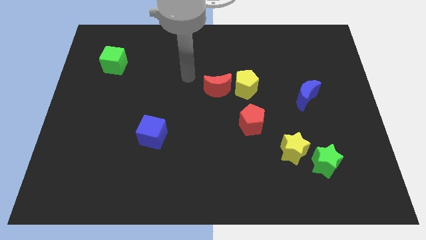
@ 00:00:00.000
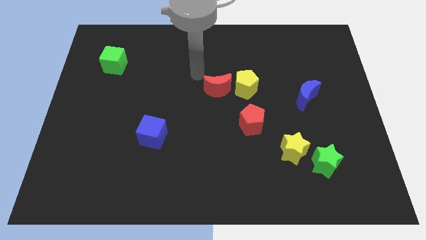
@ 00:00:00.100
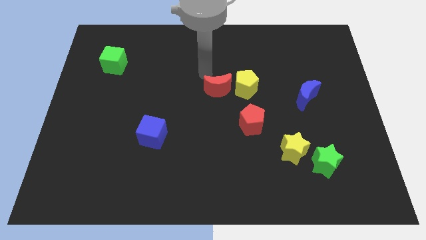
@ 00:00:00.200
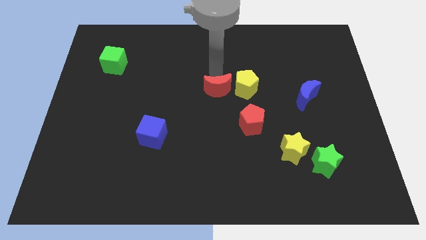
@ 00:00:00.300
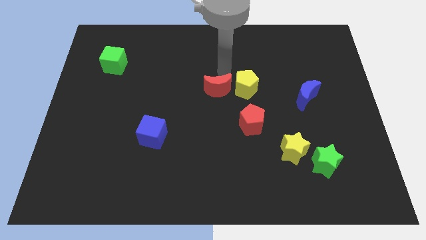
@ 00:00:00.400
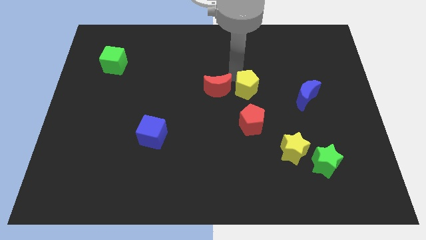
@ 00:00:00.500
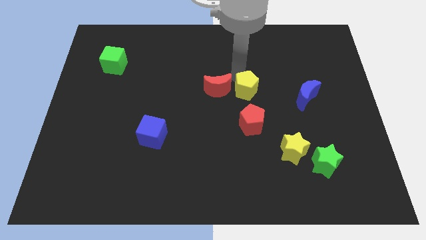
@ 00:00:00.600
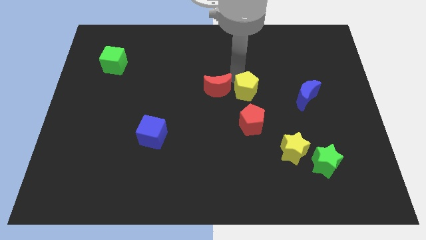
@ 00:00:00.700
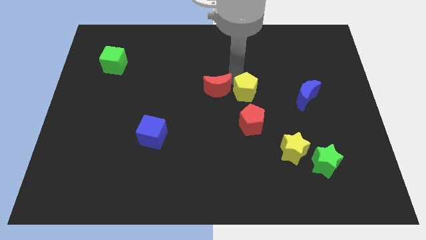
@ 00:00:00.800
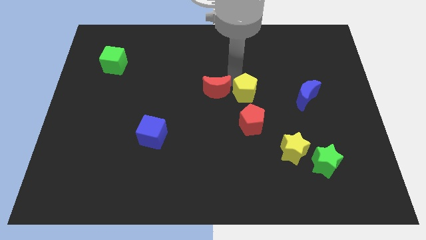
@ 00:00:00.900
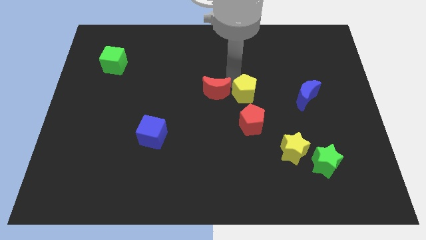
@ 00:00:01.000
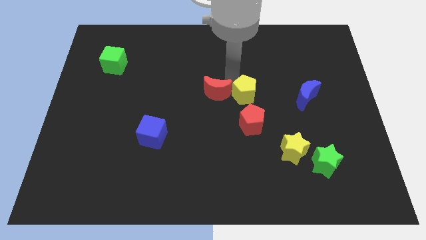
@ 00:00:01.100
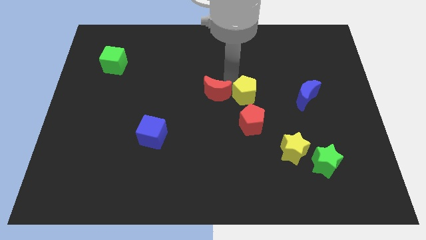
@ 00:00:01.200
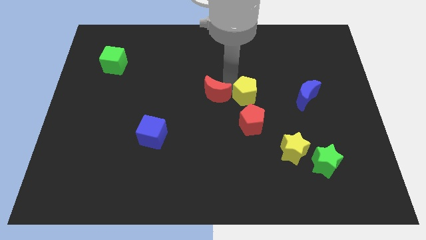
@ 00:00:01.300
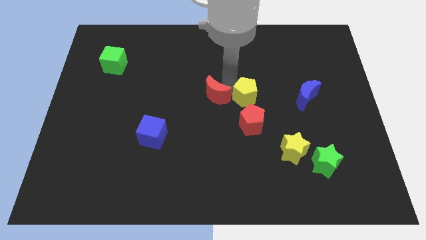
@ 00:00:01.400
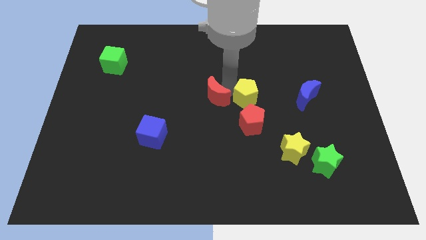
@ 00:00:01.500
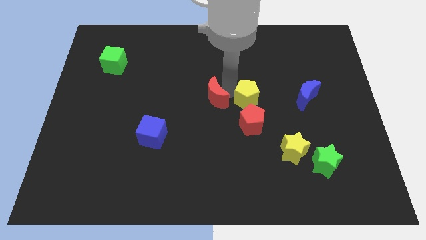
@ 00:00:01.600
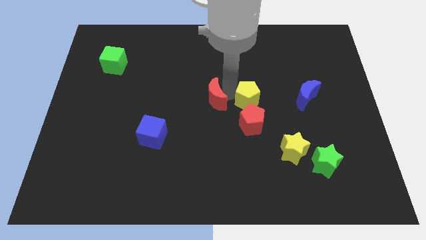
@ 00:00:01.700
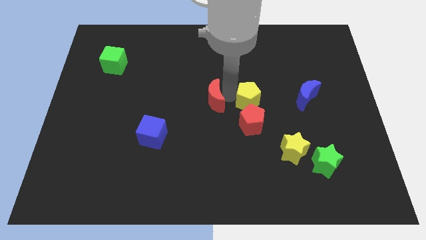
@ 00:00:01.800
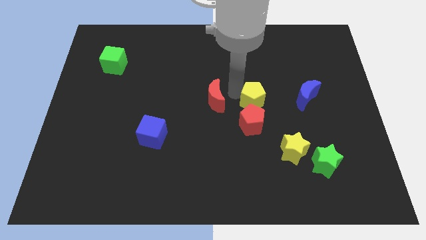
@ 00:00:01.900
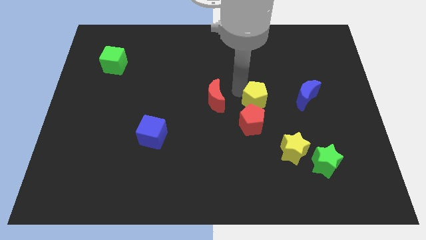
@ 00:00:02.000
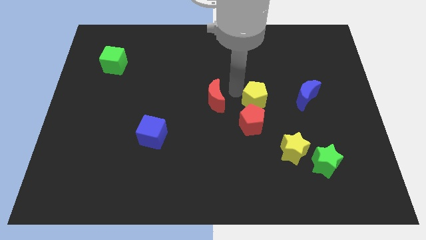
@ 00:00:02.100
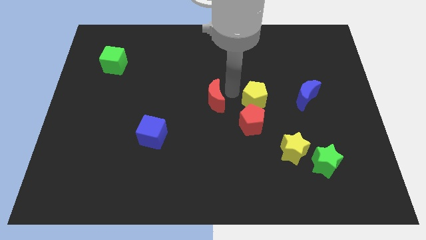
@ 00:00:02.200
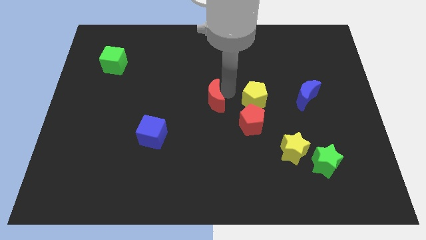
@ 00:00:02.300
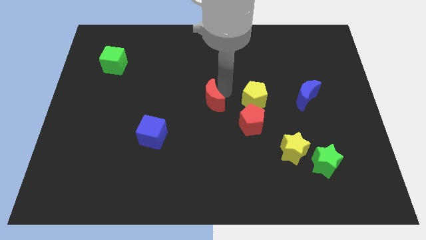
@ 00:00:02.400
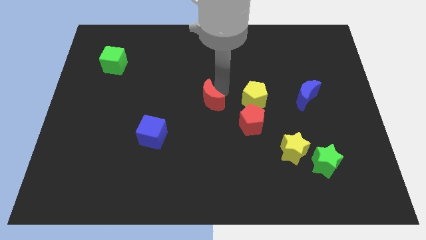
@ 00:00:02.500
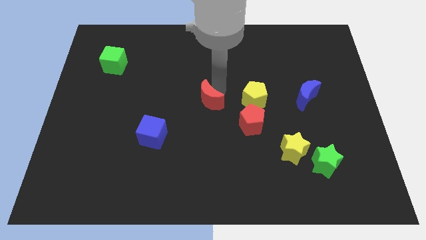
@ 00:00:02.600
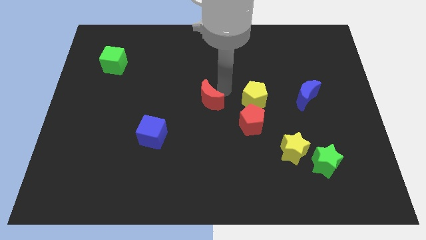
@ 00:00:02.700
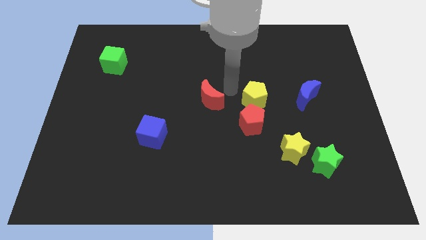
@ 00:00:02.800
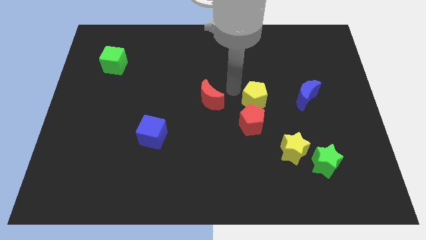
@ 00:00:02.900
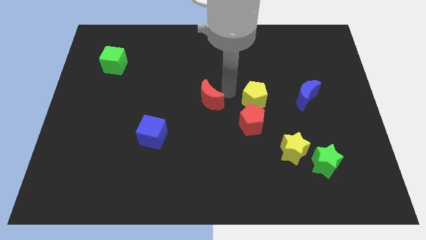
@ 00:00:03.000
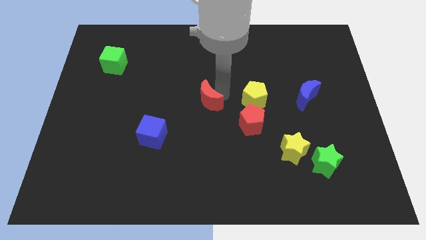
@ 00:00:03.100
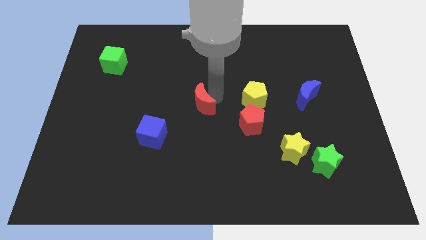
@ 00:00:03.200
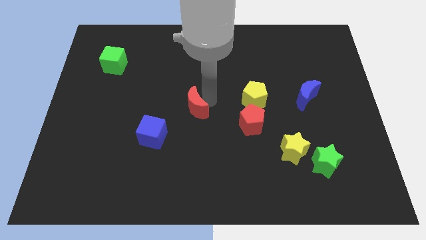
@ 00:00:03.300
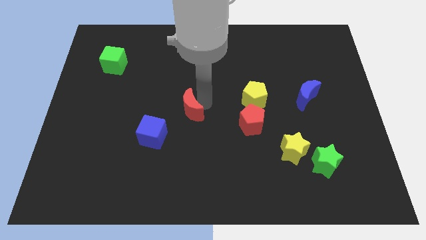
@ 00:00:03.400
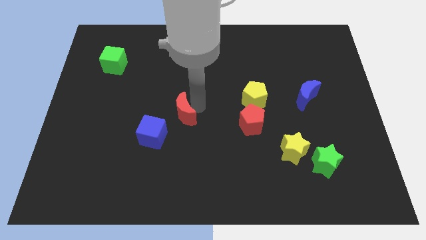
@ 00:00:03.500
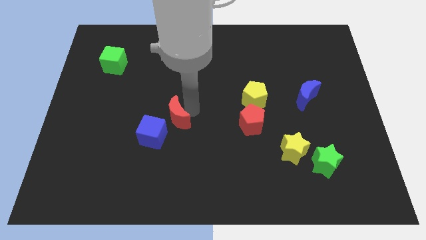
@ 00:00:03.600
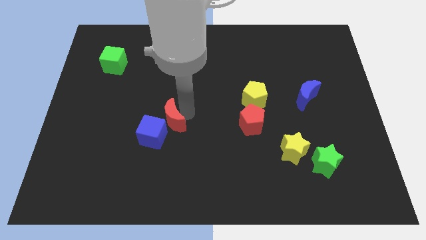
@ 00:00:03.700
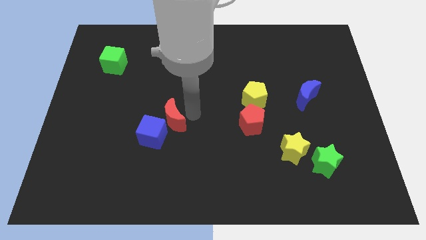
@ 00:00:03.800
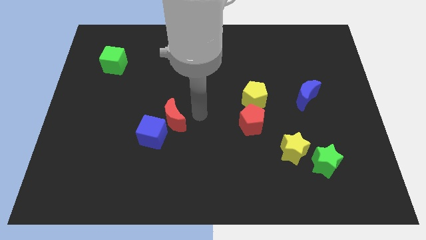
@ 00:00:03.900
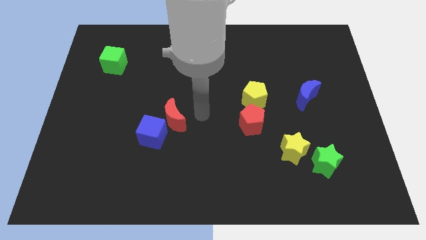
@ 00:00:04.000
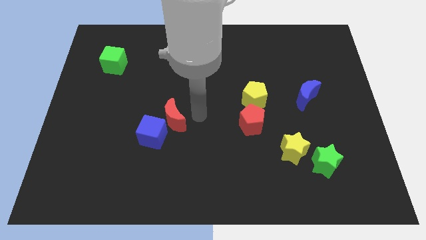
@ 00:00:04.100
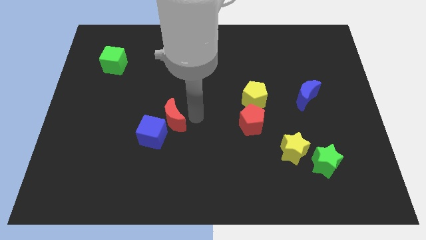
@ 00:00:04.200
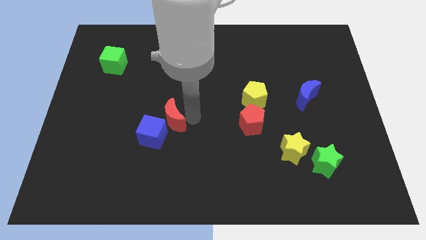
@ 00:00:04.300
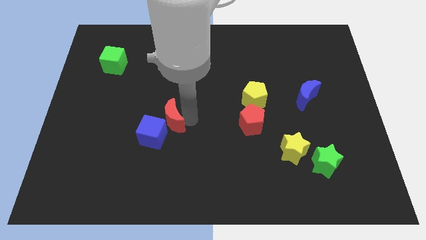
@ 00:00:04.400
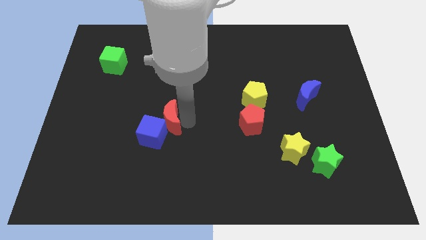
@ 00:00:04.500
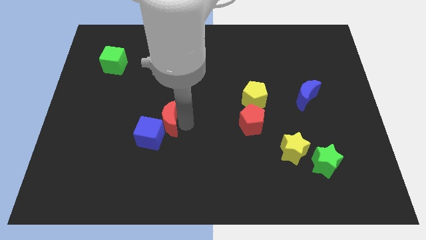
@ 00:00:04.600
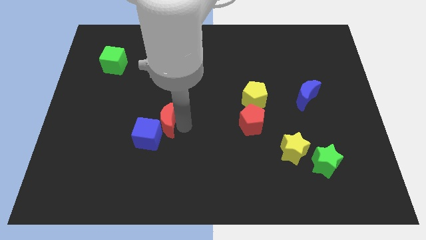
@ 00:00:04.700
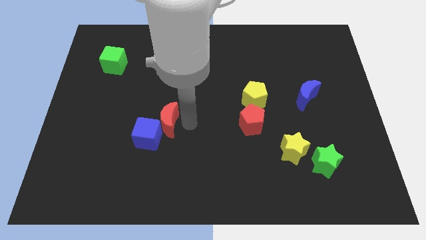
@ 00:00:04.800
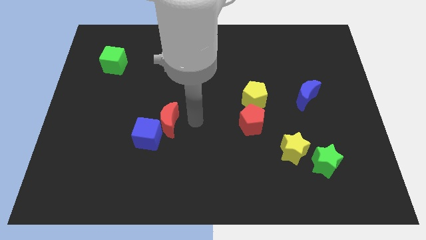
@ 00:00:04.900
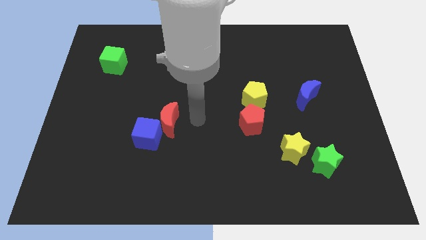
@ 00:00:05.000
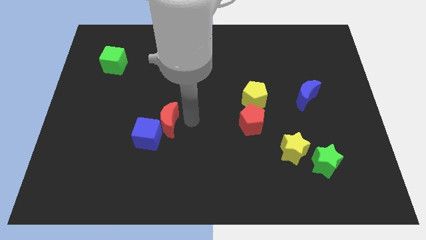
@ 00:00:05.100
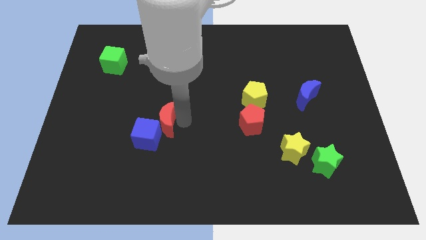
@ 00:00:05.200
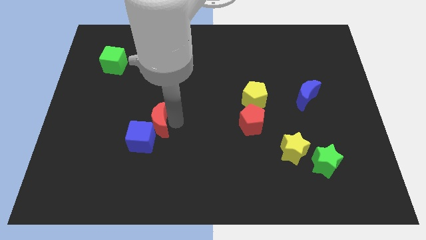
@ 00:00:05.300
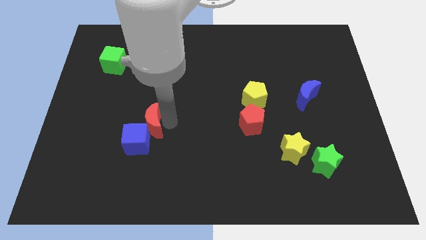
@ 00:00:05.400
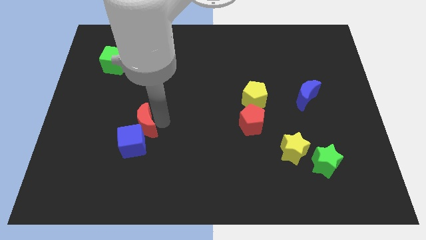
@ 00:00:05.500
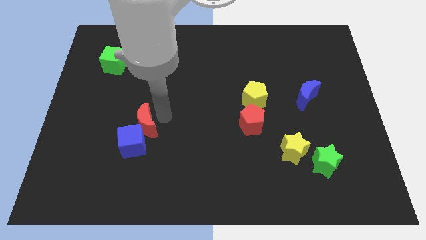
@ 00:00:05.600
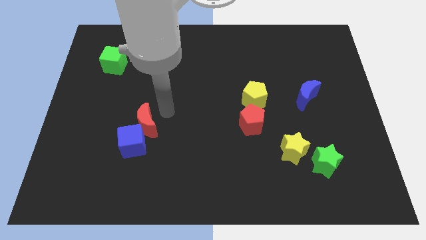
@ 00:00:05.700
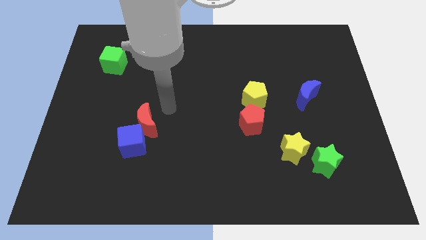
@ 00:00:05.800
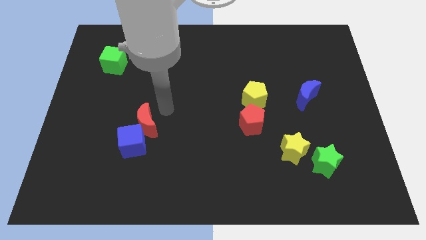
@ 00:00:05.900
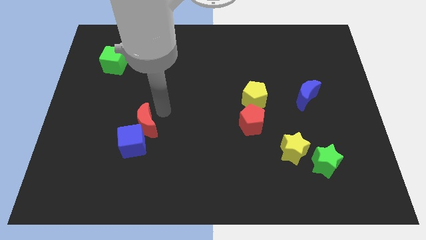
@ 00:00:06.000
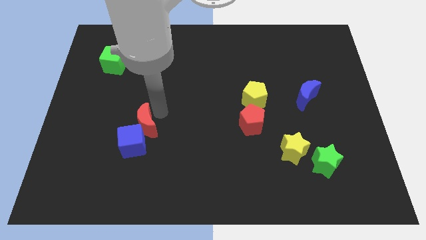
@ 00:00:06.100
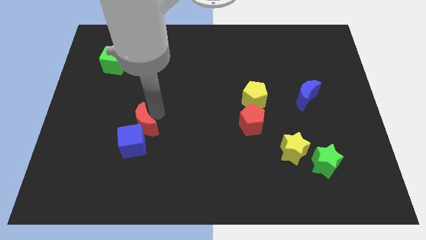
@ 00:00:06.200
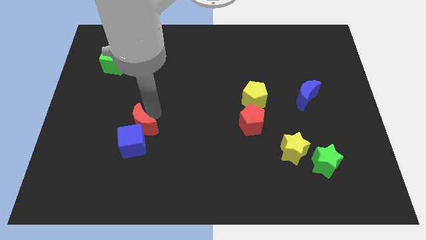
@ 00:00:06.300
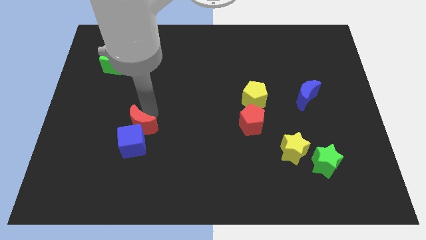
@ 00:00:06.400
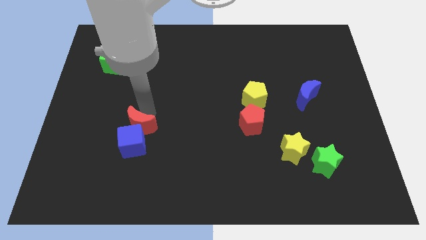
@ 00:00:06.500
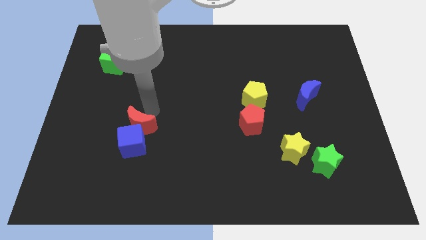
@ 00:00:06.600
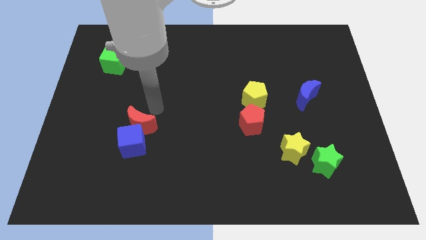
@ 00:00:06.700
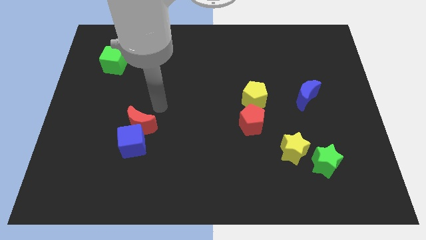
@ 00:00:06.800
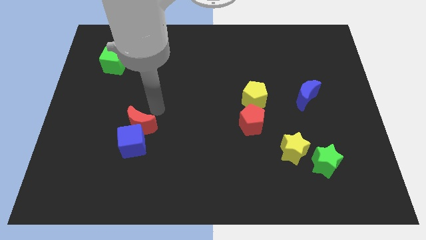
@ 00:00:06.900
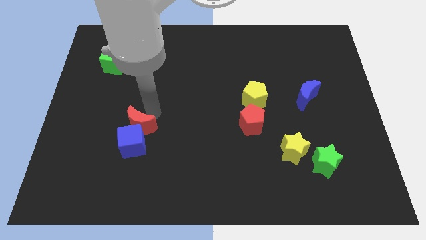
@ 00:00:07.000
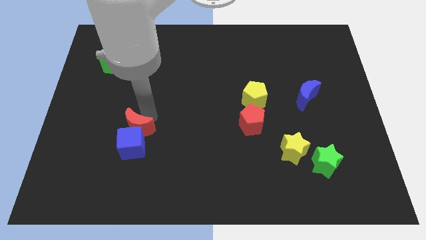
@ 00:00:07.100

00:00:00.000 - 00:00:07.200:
move the red moon downwards and to the left

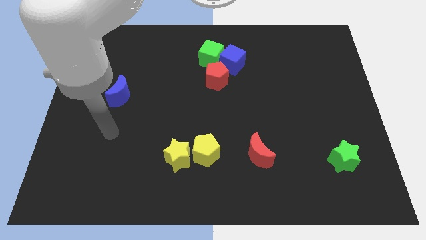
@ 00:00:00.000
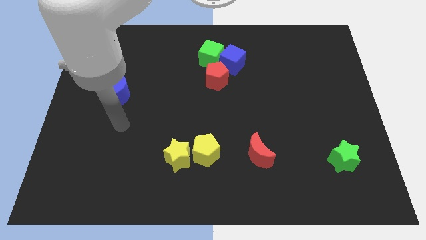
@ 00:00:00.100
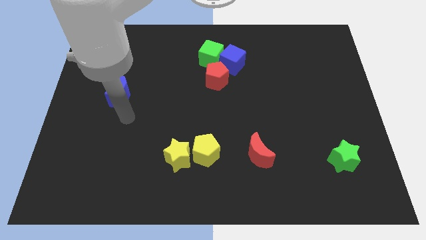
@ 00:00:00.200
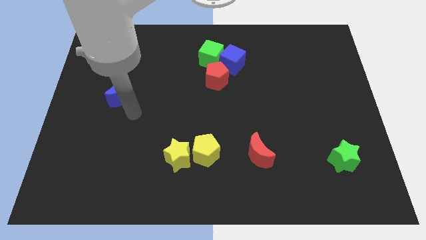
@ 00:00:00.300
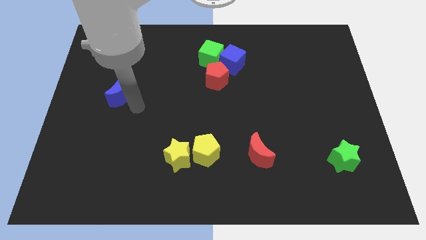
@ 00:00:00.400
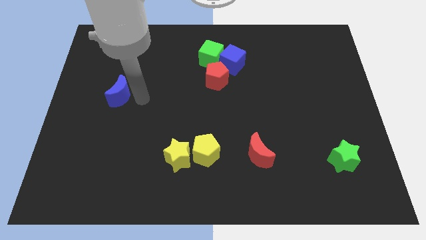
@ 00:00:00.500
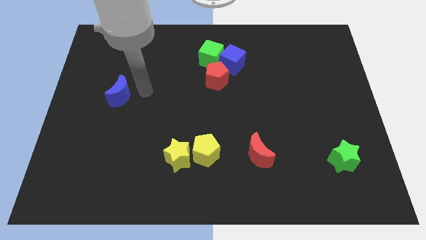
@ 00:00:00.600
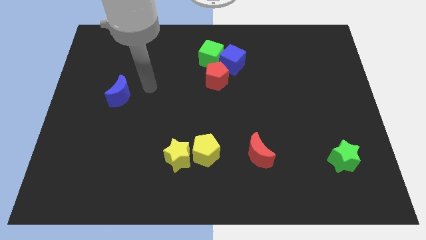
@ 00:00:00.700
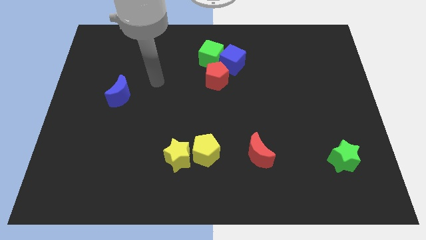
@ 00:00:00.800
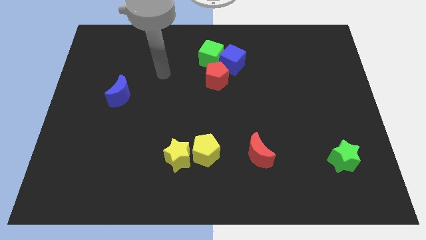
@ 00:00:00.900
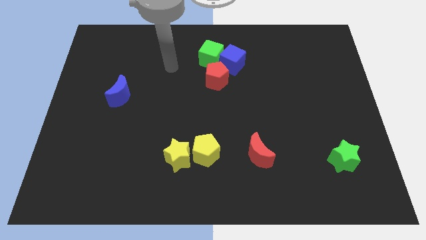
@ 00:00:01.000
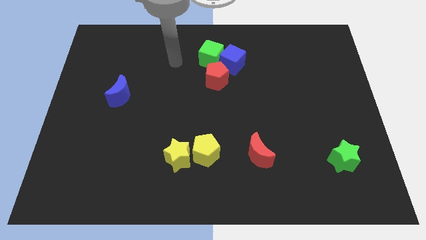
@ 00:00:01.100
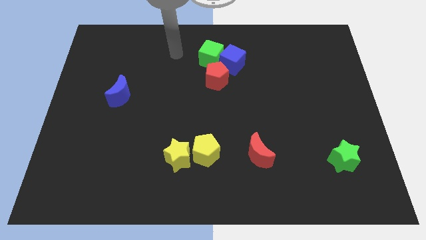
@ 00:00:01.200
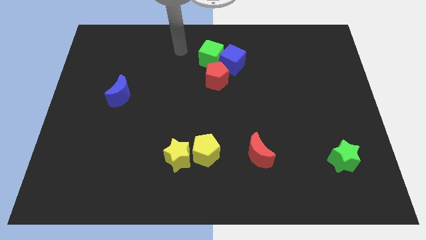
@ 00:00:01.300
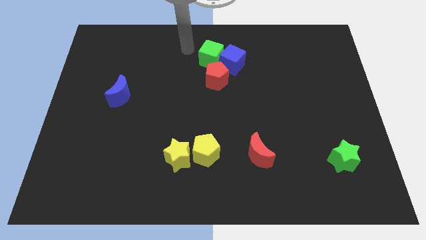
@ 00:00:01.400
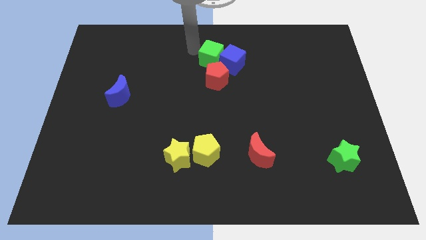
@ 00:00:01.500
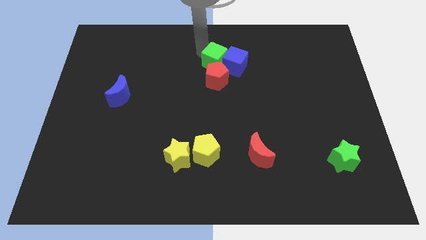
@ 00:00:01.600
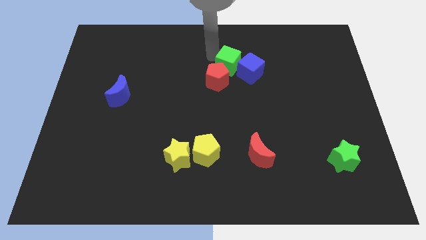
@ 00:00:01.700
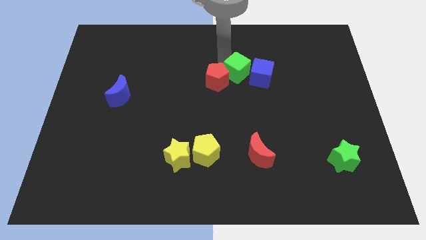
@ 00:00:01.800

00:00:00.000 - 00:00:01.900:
slide the blue cube down and right diagonally somewhat
